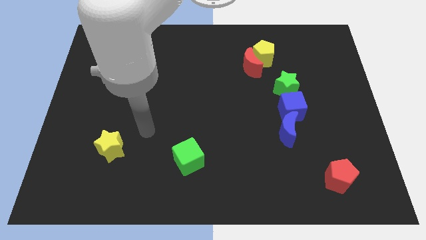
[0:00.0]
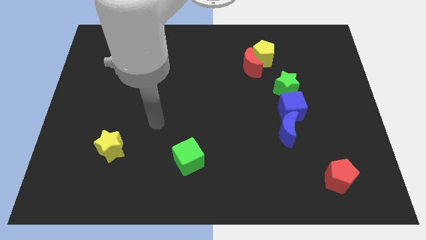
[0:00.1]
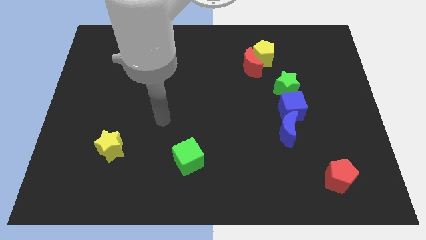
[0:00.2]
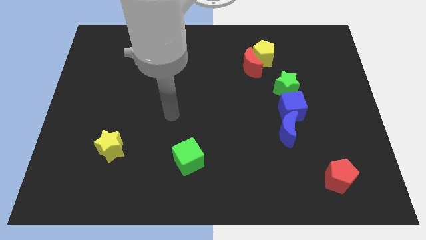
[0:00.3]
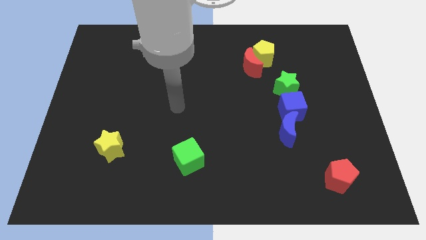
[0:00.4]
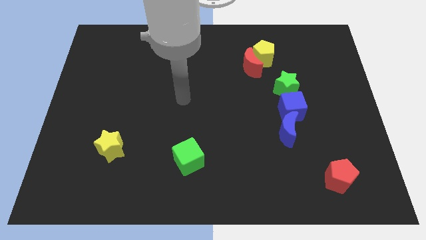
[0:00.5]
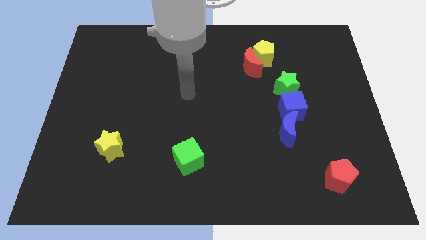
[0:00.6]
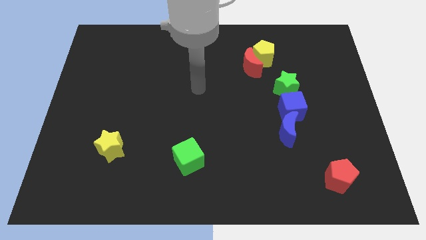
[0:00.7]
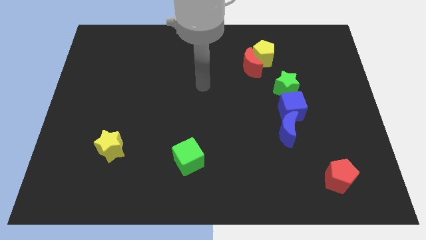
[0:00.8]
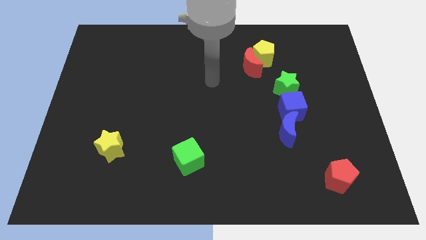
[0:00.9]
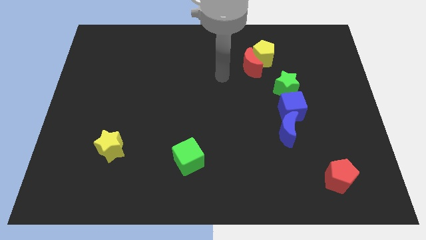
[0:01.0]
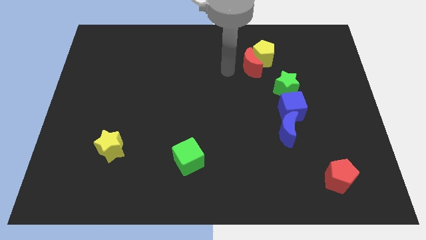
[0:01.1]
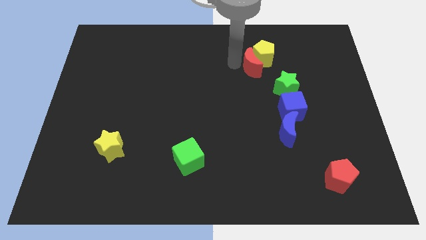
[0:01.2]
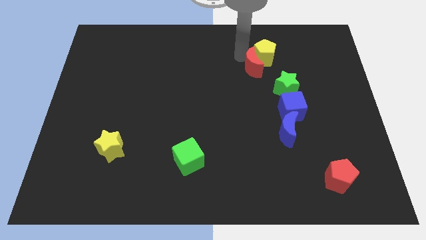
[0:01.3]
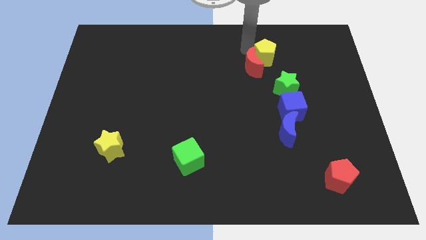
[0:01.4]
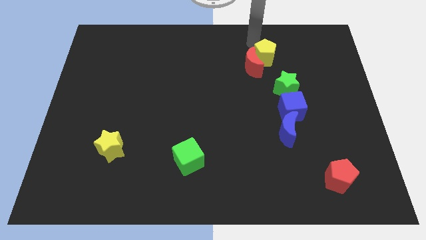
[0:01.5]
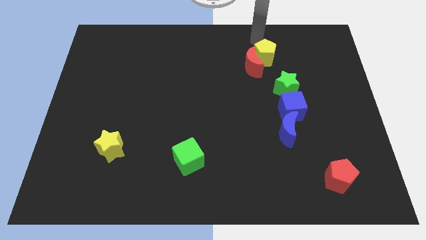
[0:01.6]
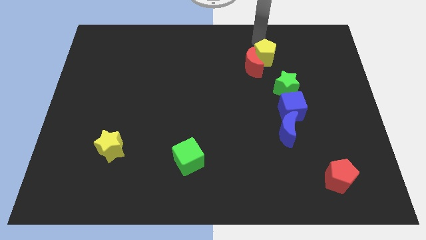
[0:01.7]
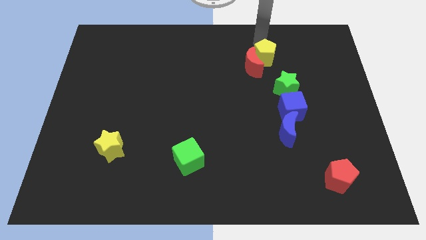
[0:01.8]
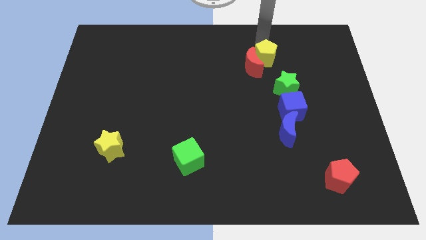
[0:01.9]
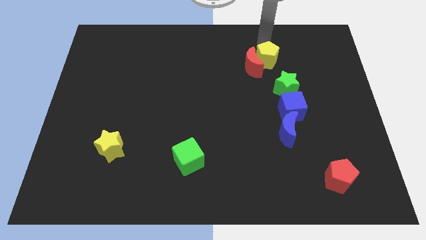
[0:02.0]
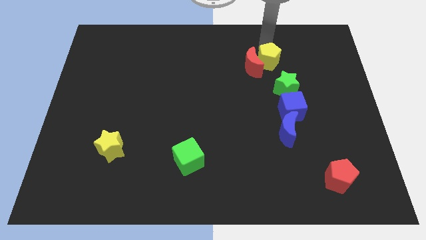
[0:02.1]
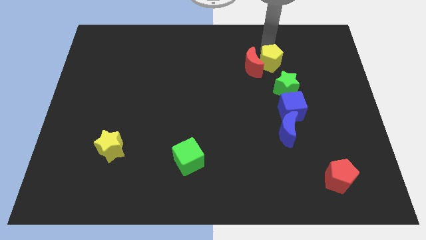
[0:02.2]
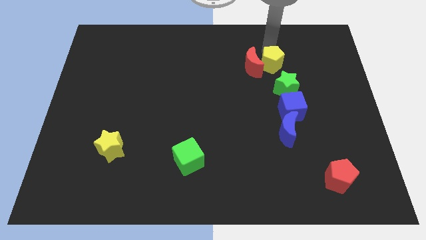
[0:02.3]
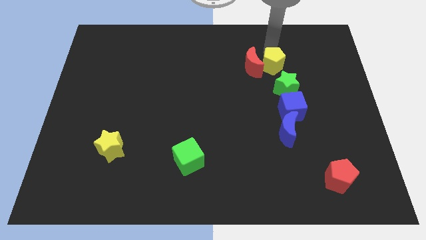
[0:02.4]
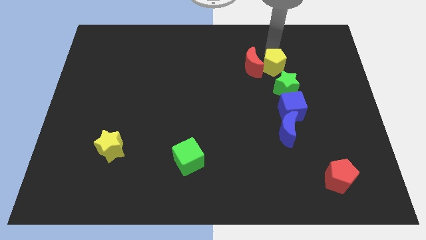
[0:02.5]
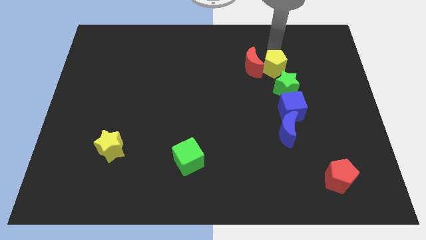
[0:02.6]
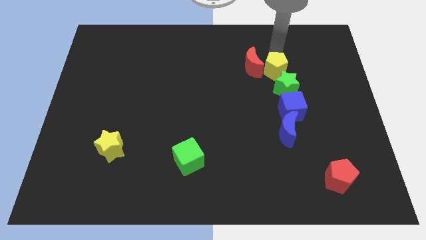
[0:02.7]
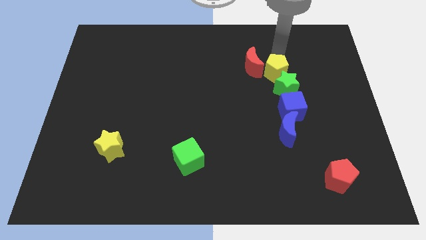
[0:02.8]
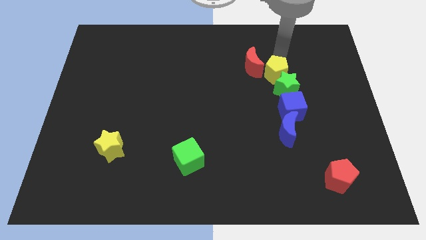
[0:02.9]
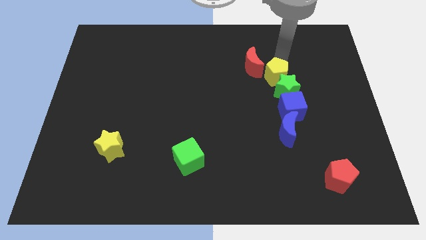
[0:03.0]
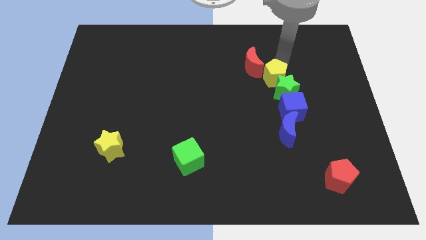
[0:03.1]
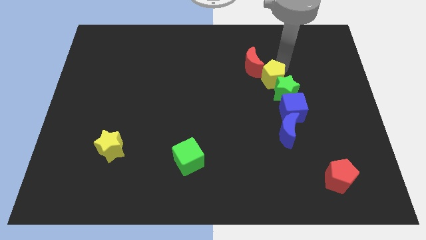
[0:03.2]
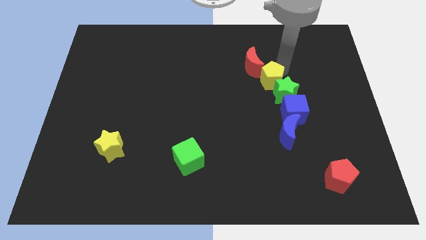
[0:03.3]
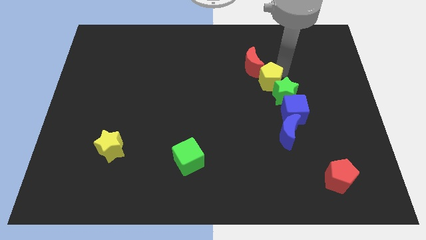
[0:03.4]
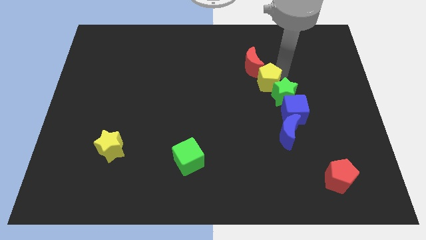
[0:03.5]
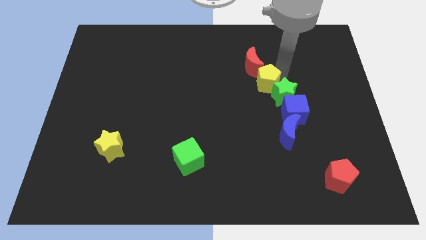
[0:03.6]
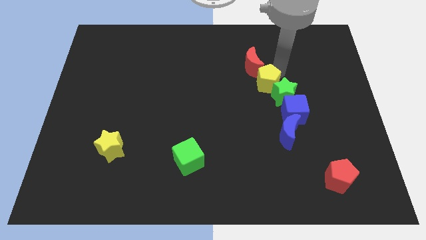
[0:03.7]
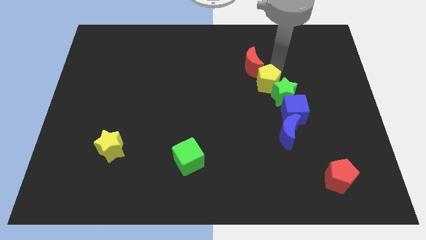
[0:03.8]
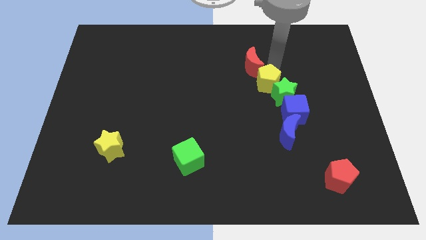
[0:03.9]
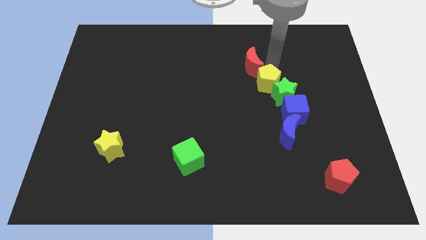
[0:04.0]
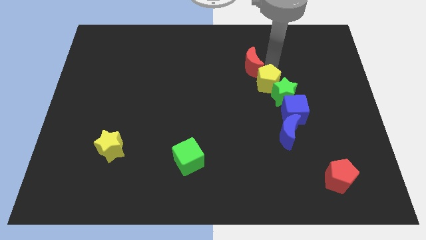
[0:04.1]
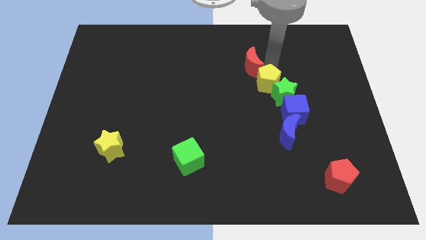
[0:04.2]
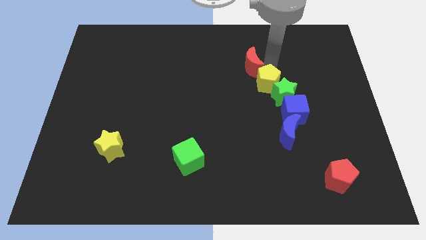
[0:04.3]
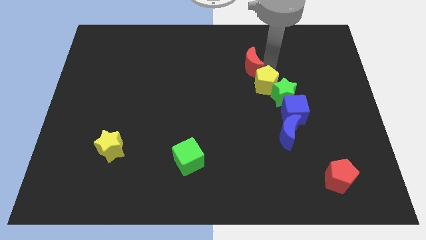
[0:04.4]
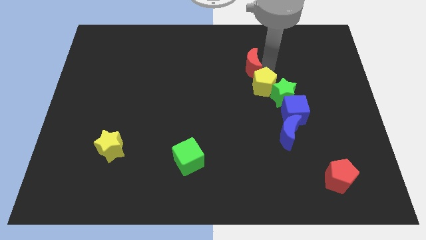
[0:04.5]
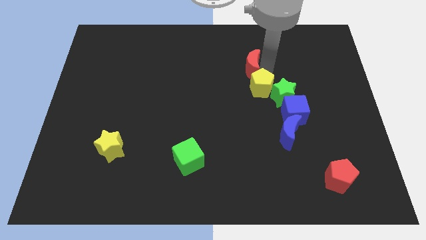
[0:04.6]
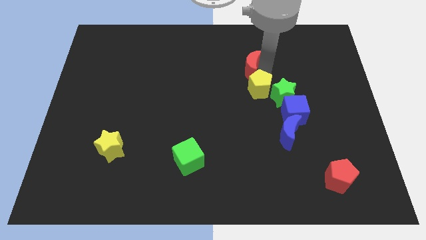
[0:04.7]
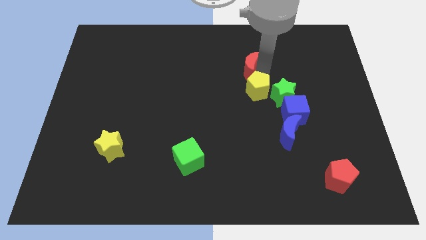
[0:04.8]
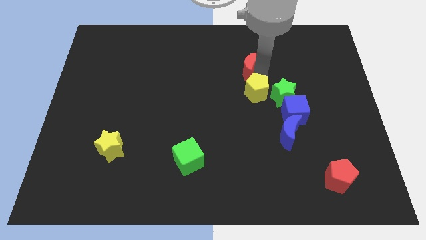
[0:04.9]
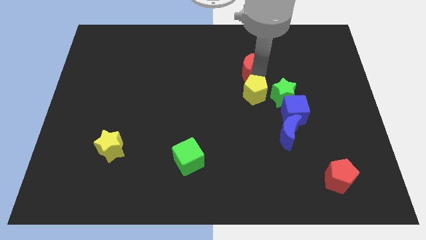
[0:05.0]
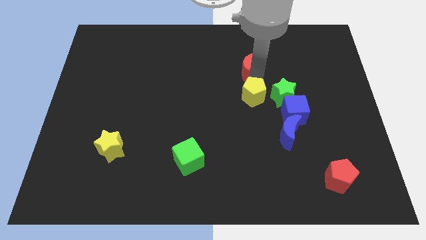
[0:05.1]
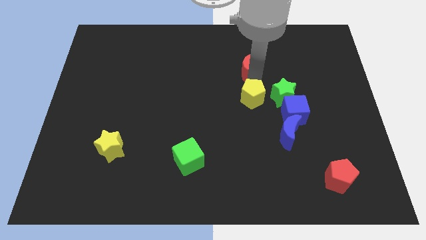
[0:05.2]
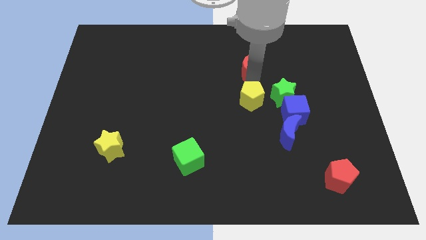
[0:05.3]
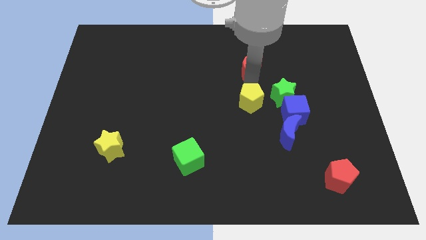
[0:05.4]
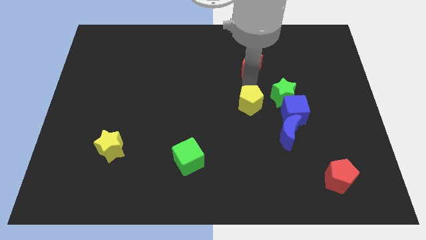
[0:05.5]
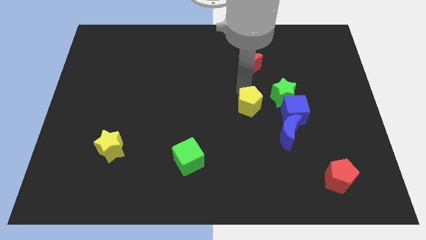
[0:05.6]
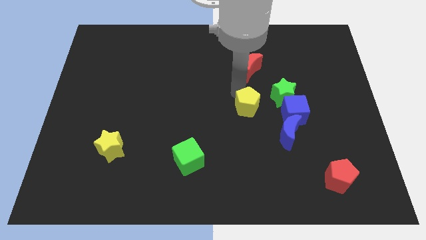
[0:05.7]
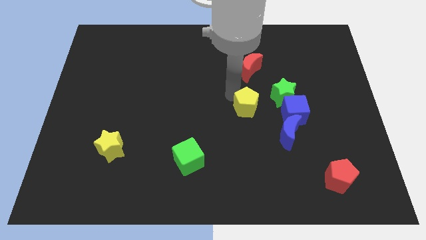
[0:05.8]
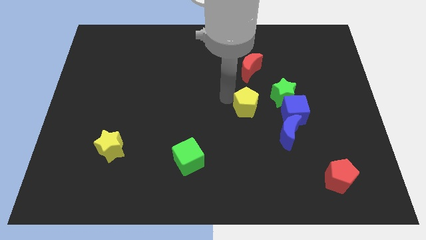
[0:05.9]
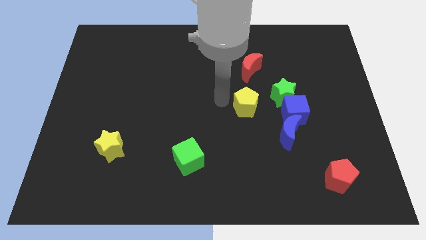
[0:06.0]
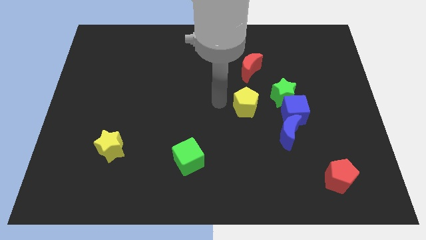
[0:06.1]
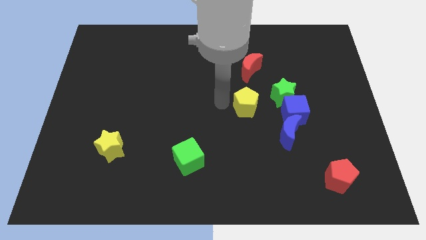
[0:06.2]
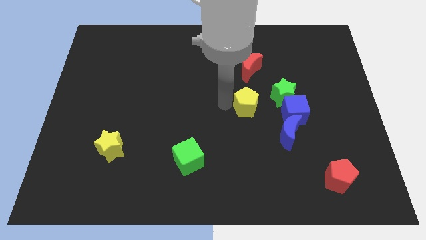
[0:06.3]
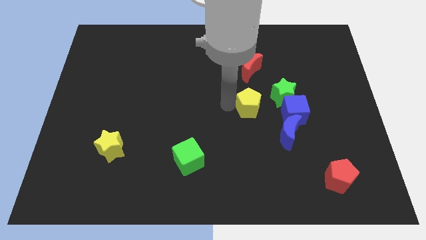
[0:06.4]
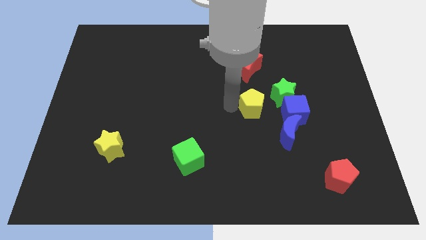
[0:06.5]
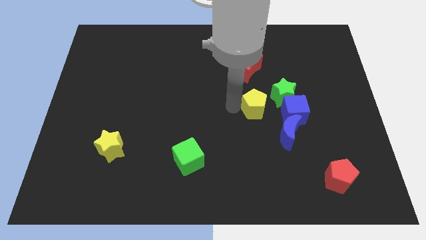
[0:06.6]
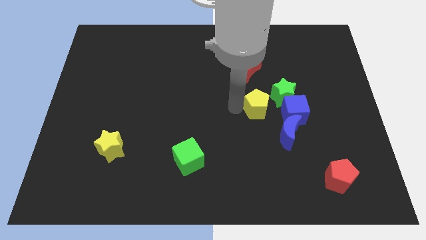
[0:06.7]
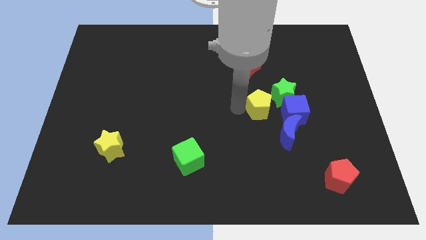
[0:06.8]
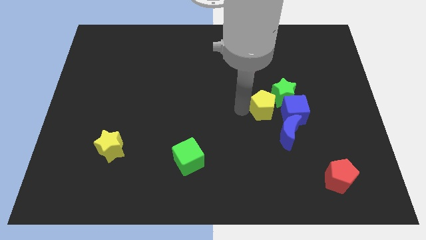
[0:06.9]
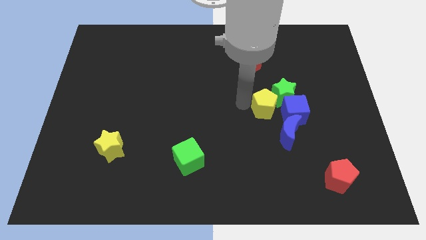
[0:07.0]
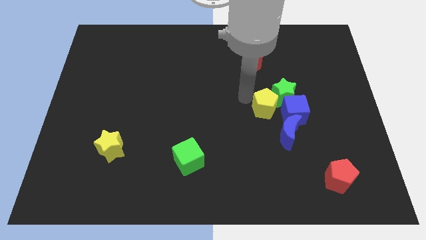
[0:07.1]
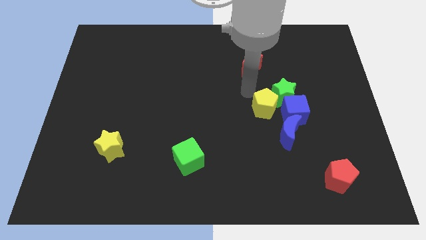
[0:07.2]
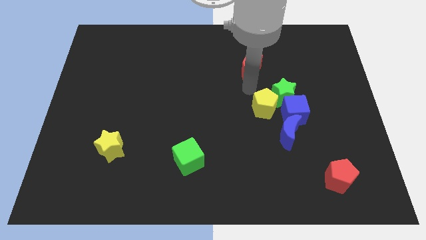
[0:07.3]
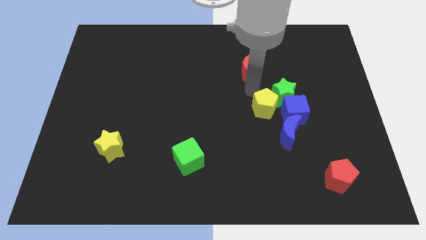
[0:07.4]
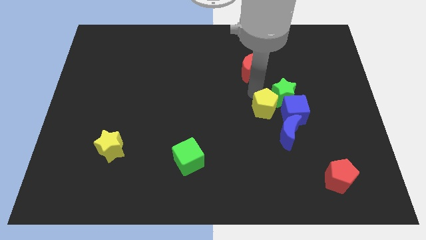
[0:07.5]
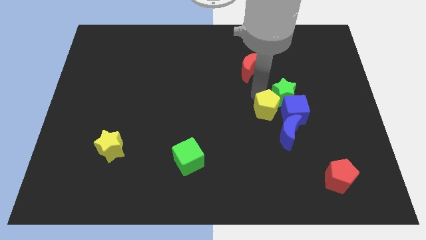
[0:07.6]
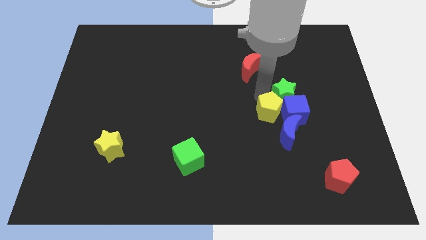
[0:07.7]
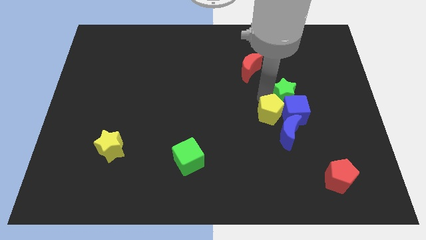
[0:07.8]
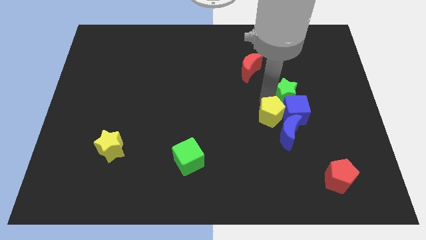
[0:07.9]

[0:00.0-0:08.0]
put the yellow pentagon close to the blue moon
